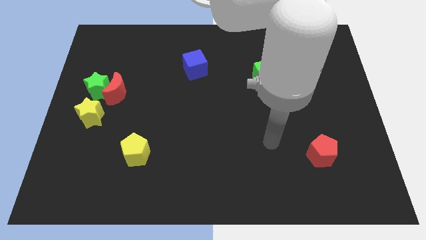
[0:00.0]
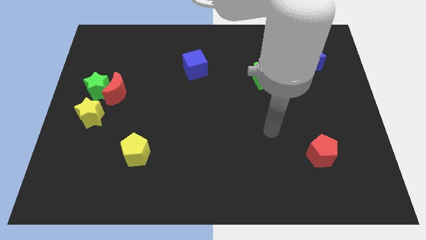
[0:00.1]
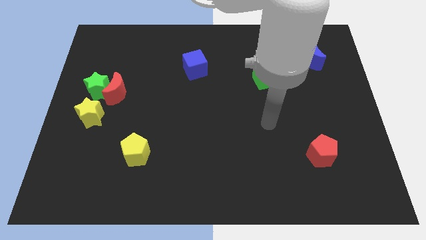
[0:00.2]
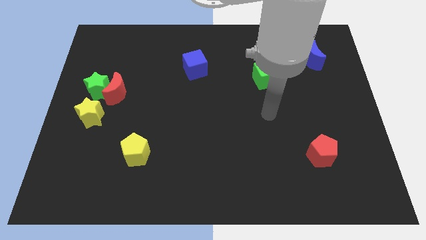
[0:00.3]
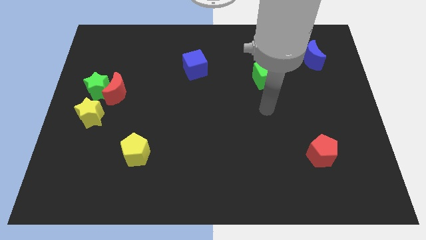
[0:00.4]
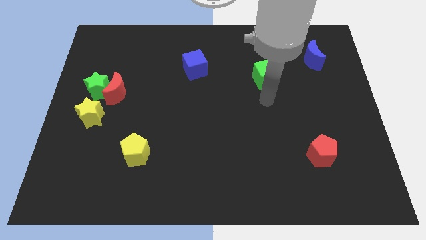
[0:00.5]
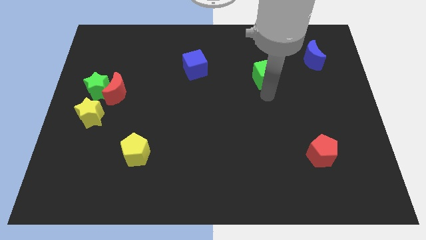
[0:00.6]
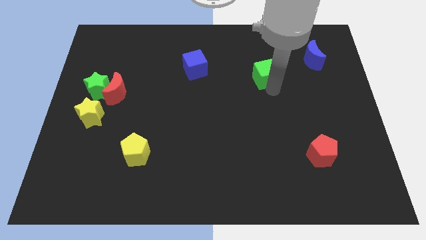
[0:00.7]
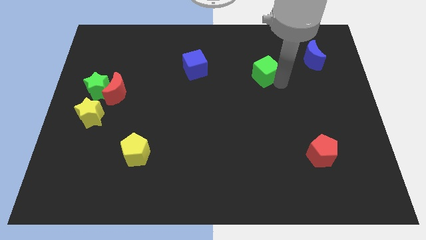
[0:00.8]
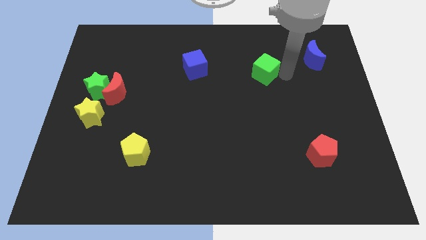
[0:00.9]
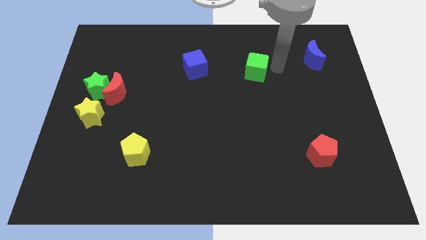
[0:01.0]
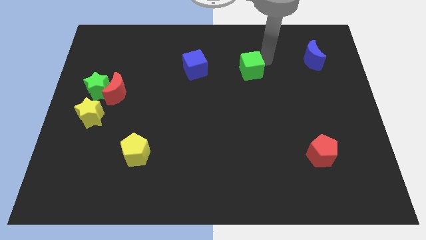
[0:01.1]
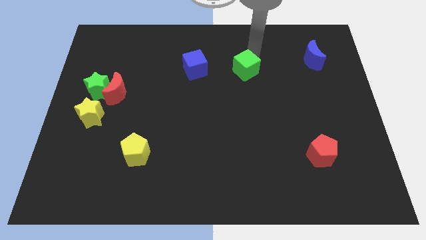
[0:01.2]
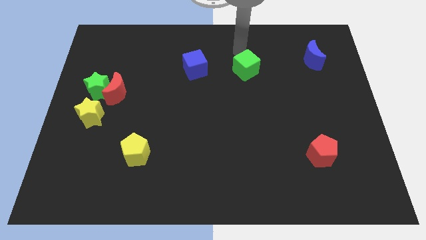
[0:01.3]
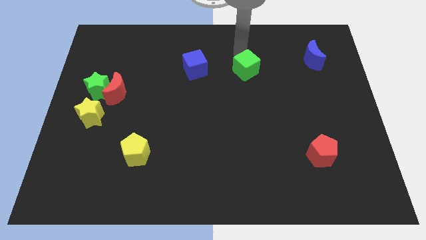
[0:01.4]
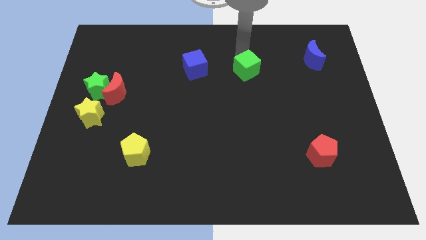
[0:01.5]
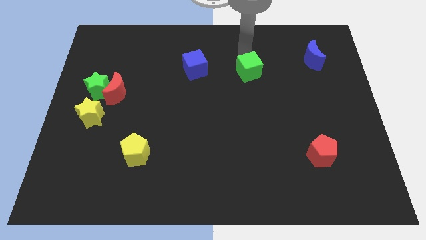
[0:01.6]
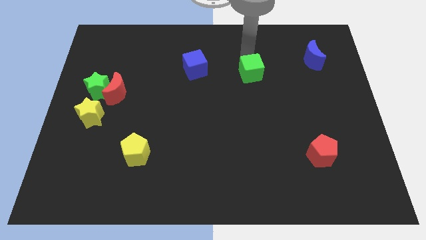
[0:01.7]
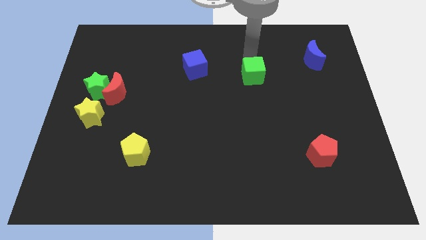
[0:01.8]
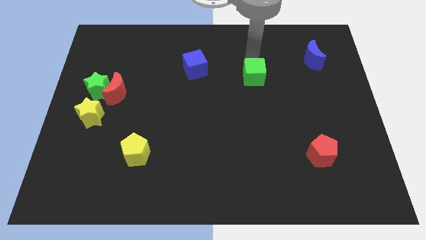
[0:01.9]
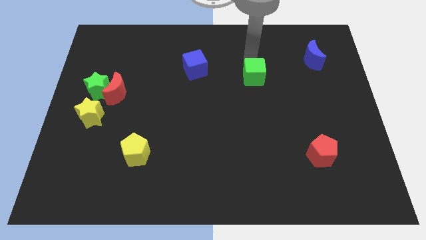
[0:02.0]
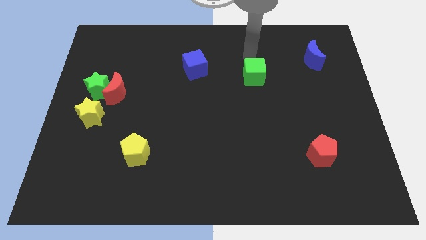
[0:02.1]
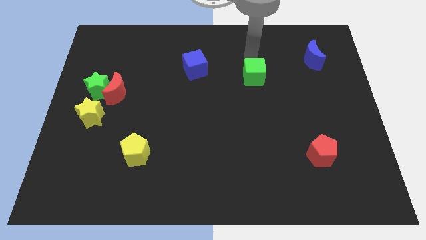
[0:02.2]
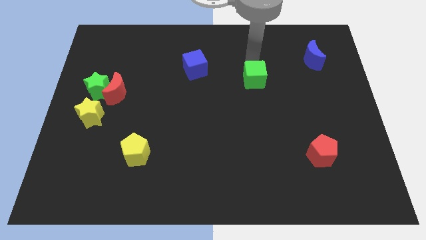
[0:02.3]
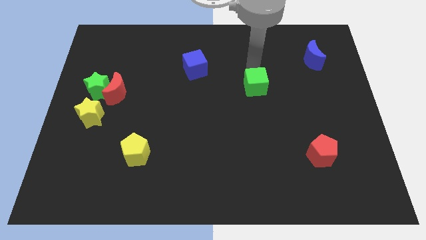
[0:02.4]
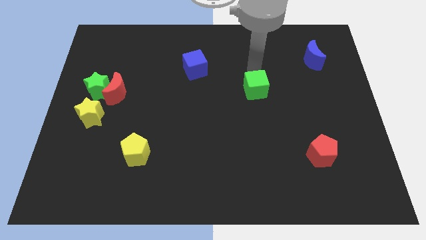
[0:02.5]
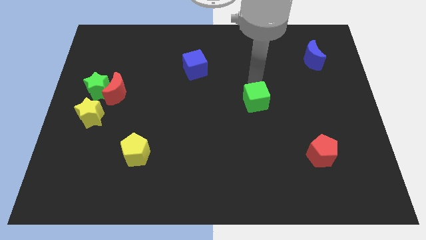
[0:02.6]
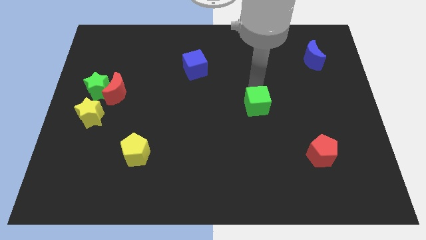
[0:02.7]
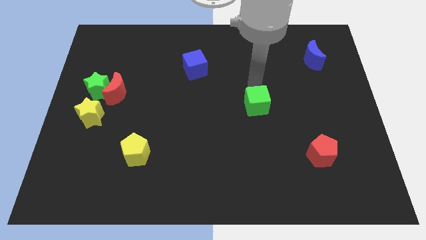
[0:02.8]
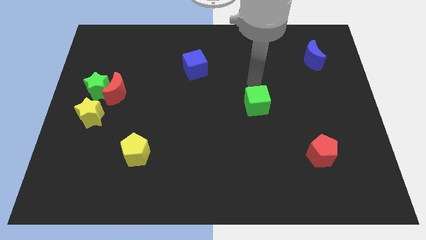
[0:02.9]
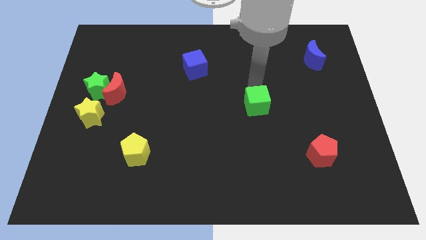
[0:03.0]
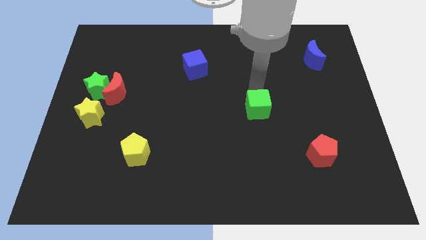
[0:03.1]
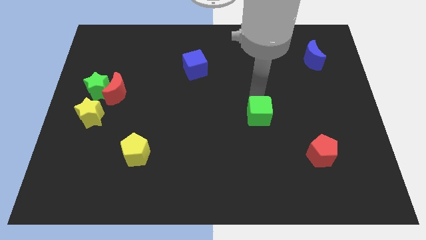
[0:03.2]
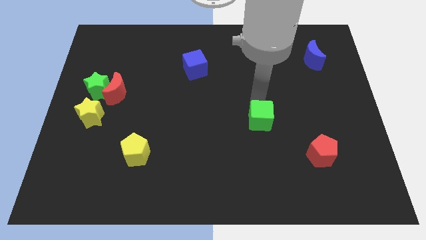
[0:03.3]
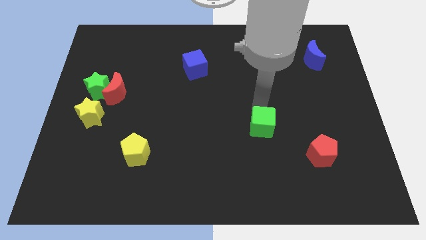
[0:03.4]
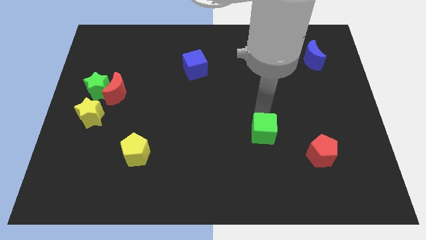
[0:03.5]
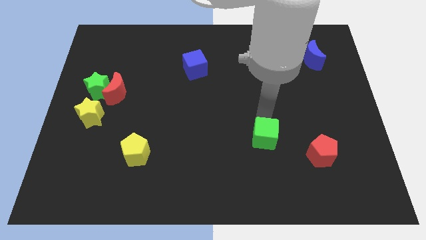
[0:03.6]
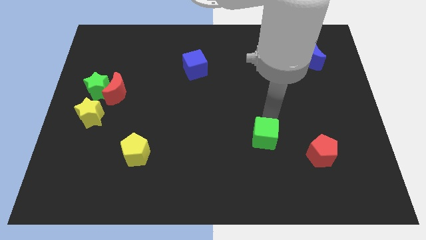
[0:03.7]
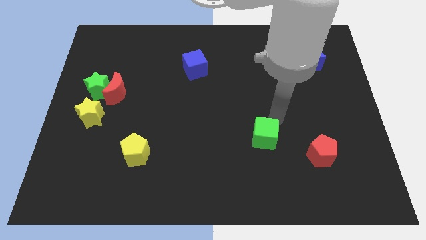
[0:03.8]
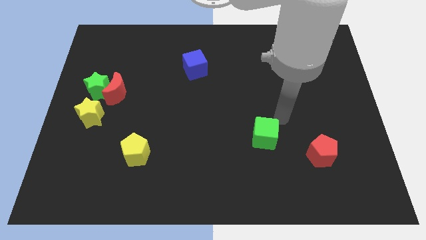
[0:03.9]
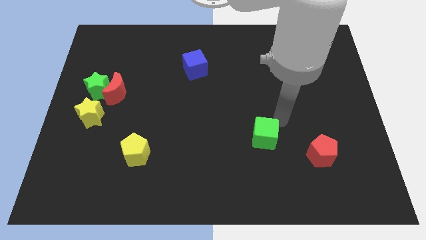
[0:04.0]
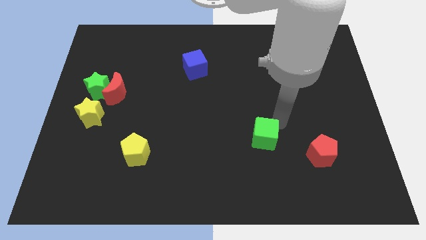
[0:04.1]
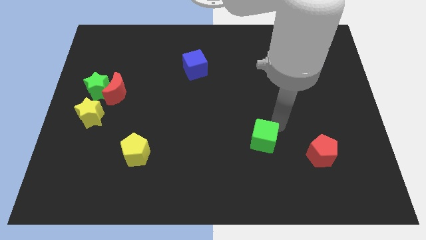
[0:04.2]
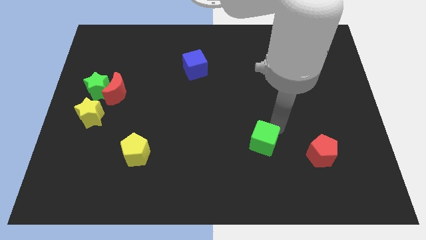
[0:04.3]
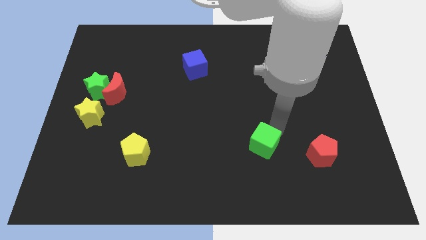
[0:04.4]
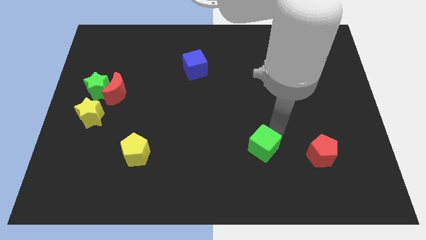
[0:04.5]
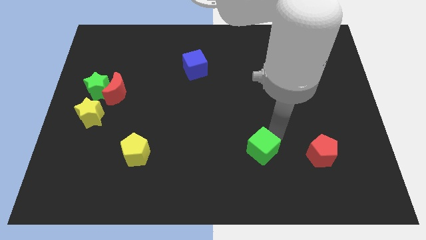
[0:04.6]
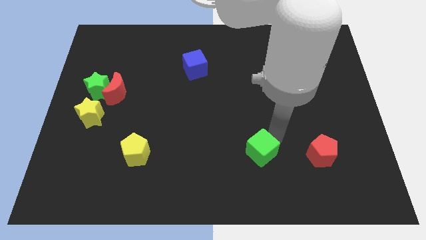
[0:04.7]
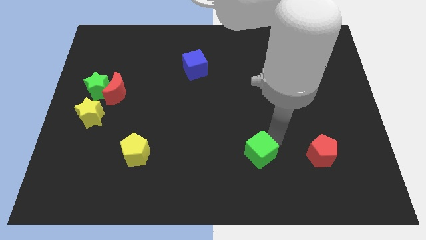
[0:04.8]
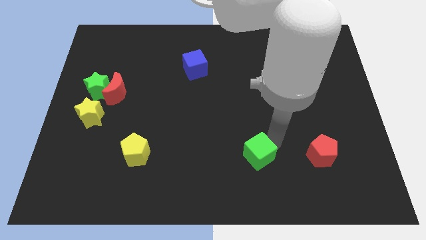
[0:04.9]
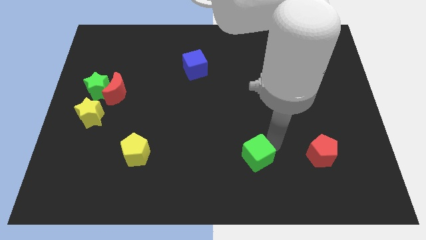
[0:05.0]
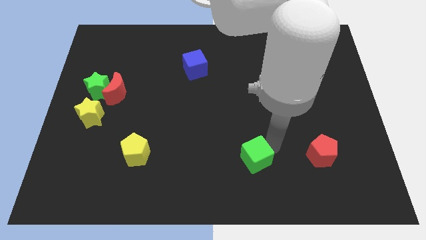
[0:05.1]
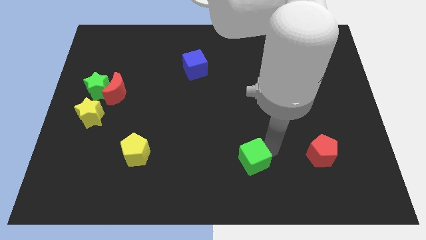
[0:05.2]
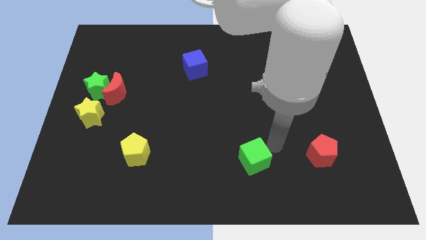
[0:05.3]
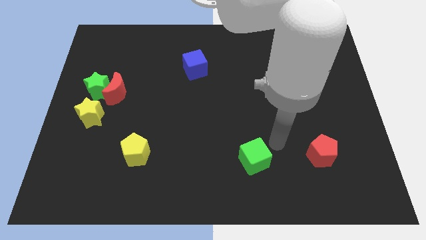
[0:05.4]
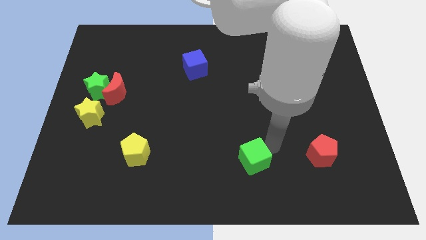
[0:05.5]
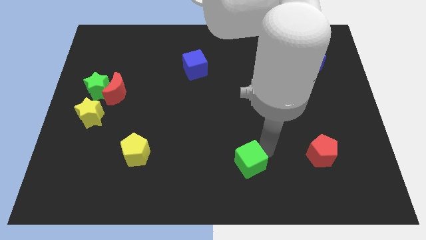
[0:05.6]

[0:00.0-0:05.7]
push the green cube to the bottom
